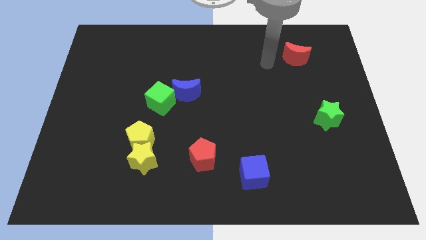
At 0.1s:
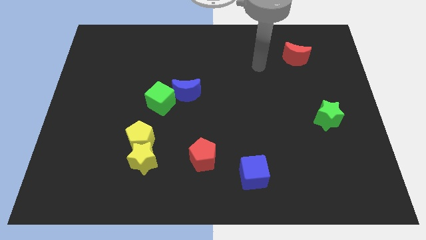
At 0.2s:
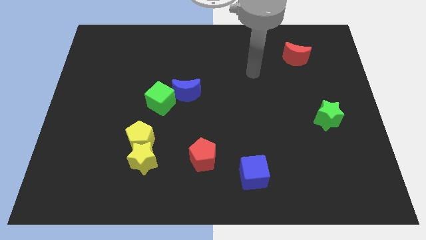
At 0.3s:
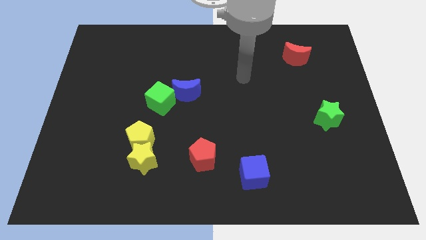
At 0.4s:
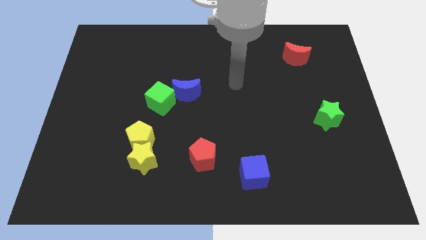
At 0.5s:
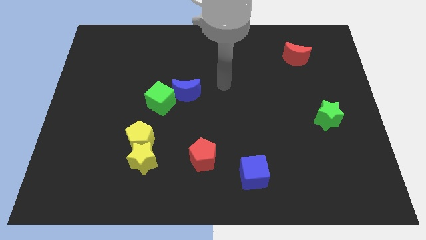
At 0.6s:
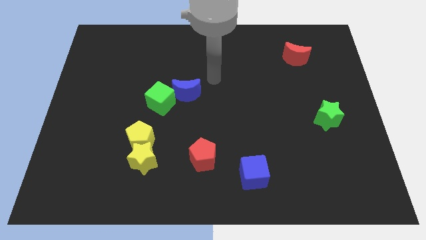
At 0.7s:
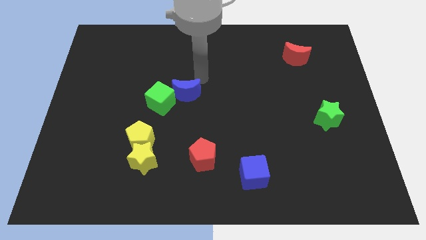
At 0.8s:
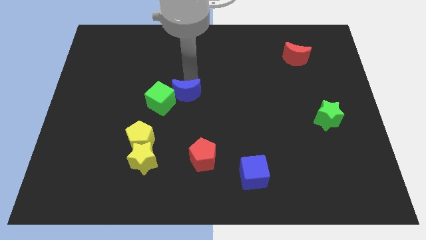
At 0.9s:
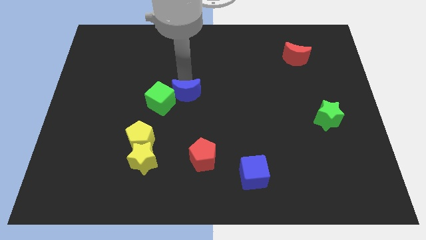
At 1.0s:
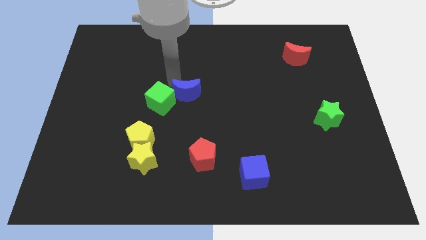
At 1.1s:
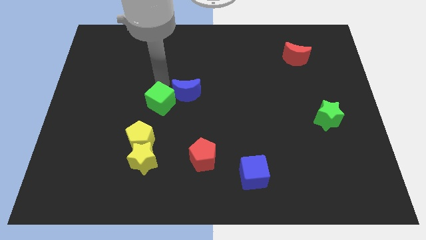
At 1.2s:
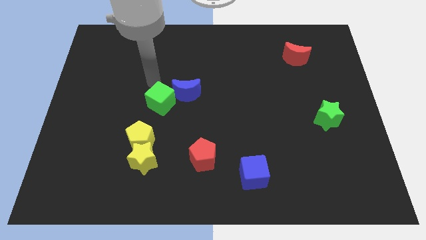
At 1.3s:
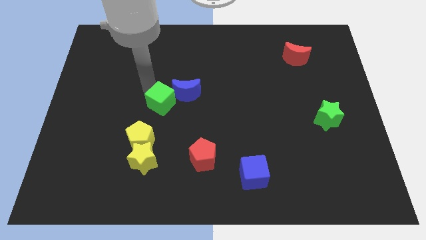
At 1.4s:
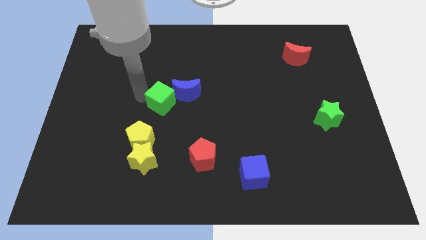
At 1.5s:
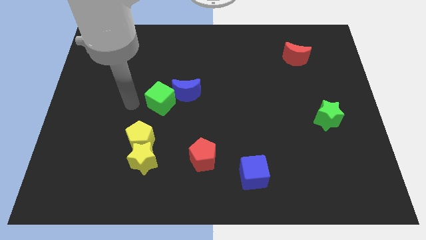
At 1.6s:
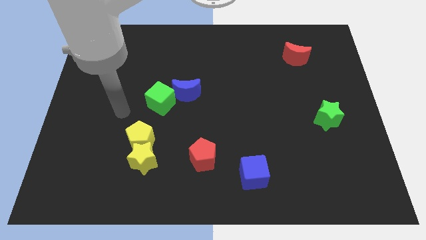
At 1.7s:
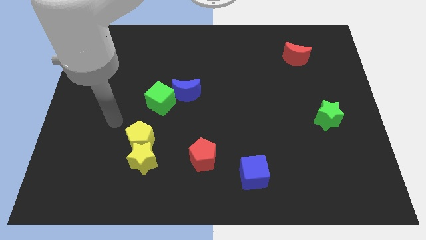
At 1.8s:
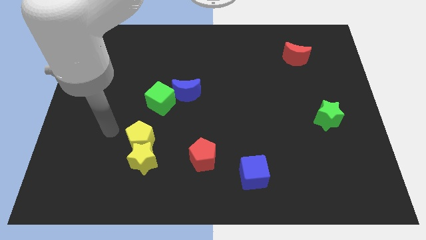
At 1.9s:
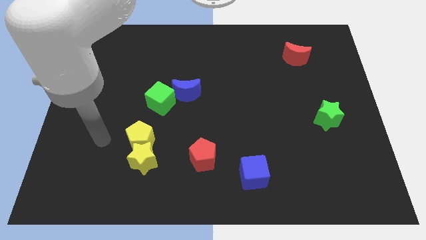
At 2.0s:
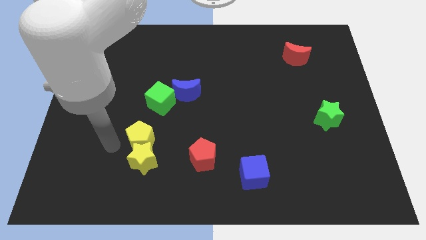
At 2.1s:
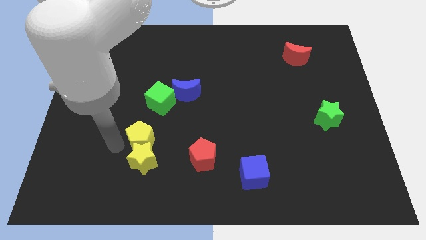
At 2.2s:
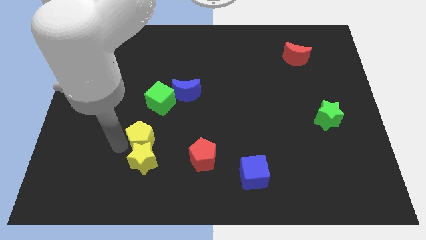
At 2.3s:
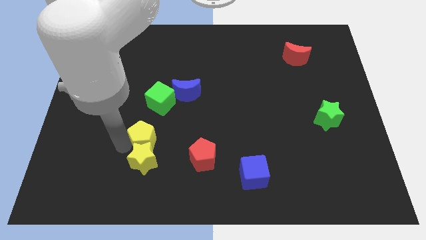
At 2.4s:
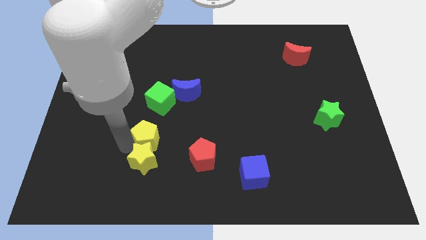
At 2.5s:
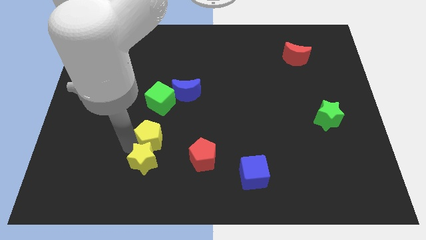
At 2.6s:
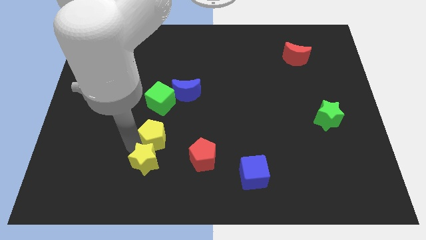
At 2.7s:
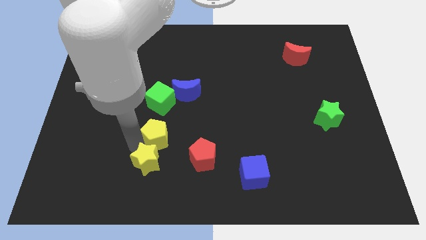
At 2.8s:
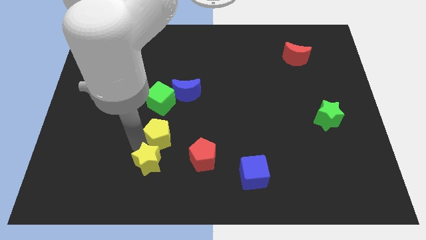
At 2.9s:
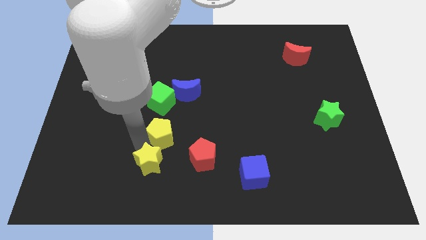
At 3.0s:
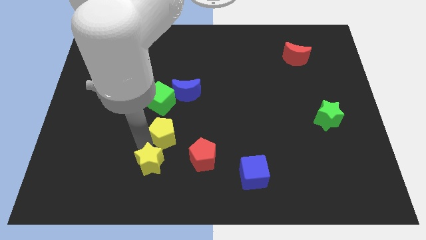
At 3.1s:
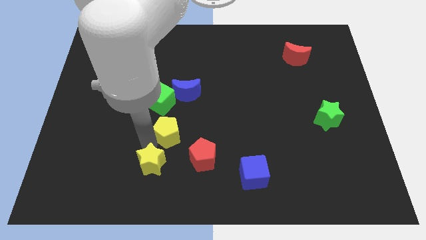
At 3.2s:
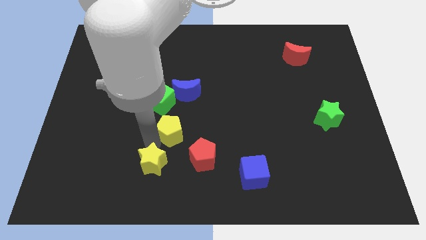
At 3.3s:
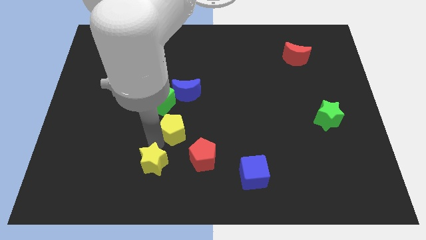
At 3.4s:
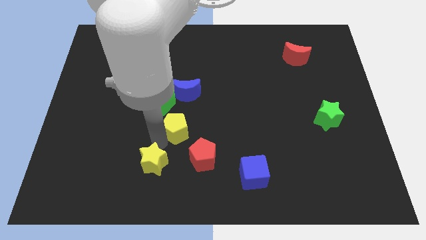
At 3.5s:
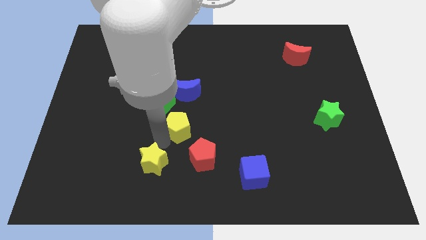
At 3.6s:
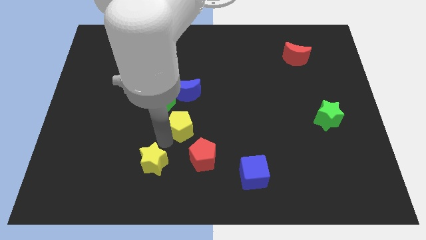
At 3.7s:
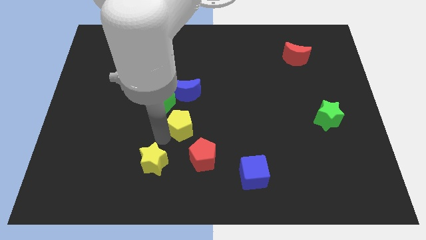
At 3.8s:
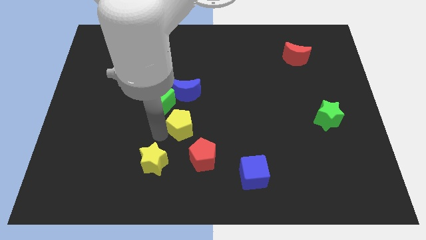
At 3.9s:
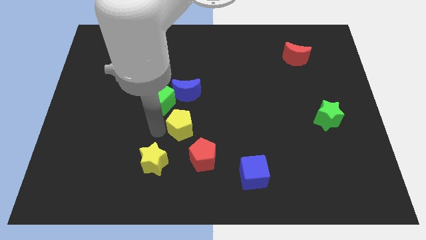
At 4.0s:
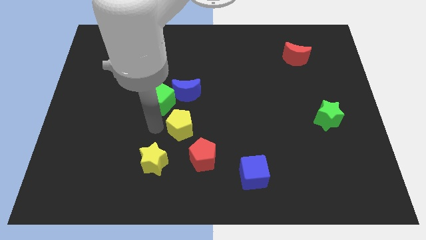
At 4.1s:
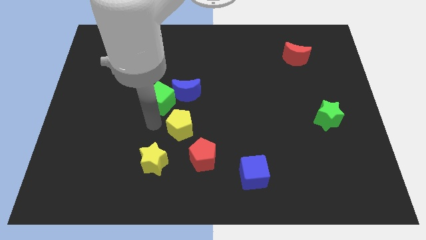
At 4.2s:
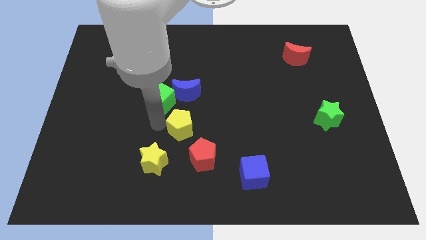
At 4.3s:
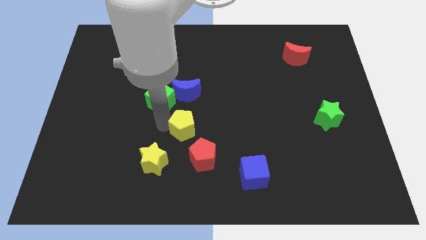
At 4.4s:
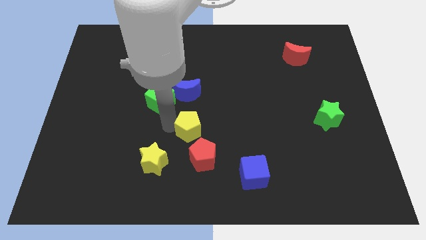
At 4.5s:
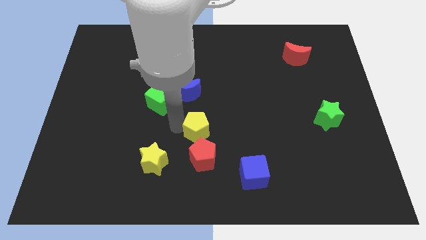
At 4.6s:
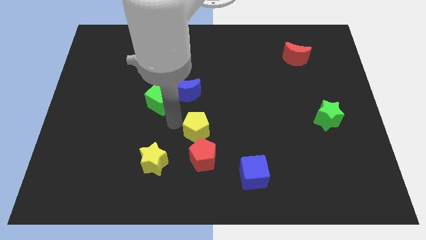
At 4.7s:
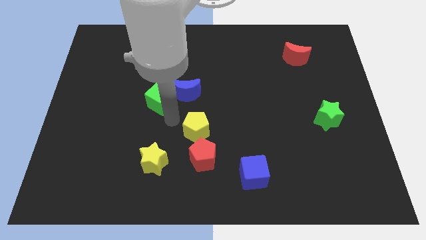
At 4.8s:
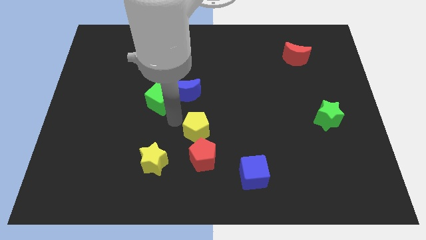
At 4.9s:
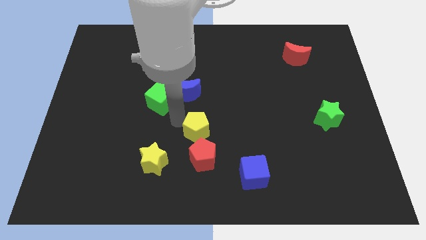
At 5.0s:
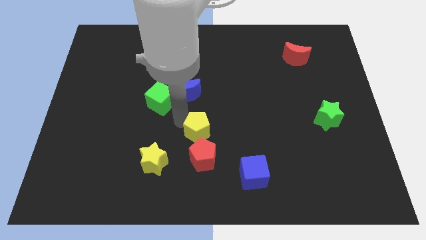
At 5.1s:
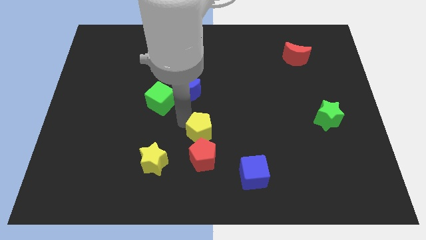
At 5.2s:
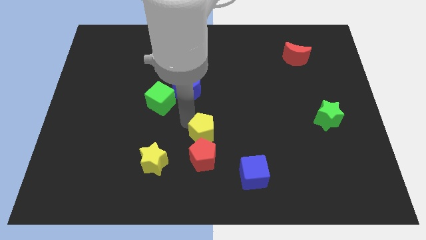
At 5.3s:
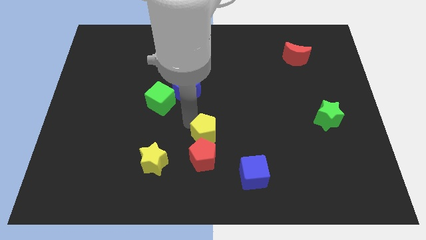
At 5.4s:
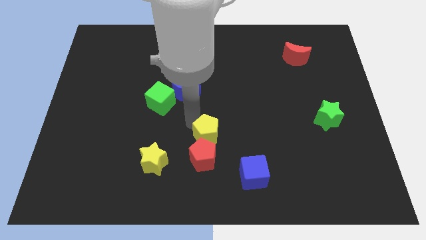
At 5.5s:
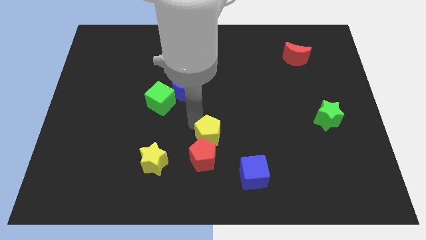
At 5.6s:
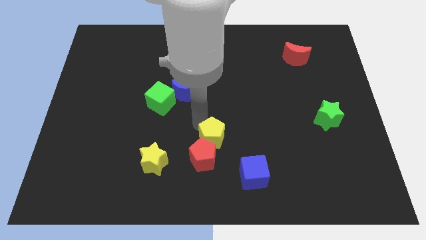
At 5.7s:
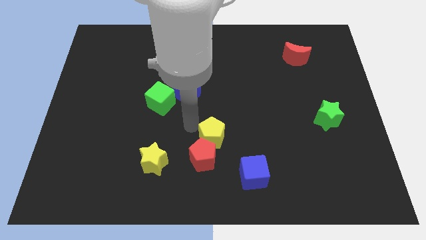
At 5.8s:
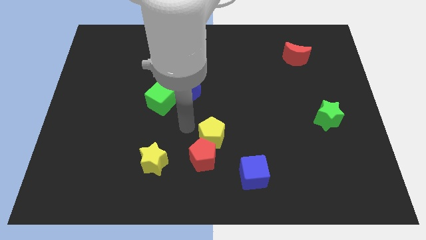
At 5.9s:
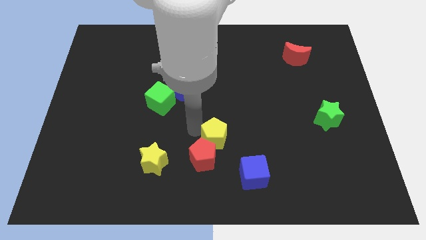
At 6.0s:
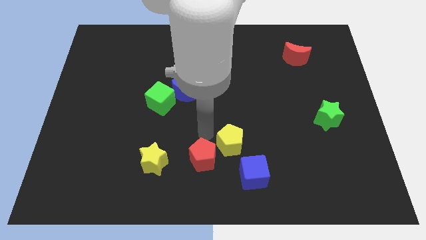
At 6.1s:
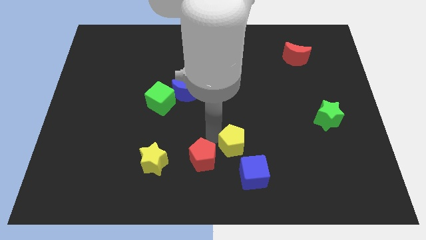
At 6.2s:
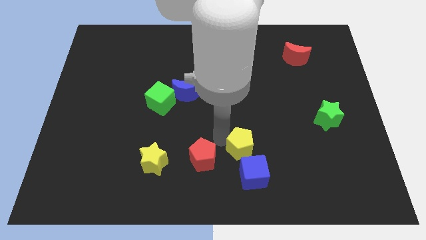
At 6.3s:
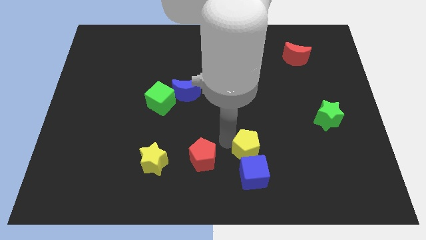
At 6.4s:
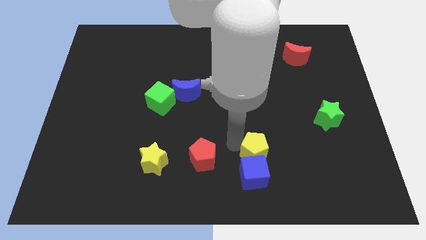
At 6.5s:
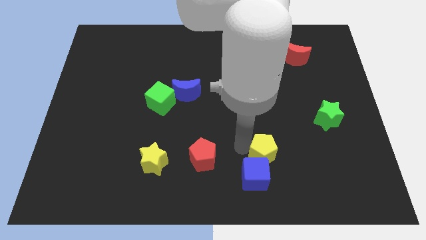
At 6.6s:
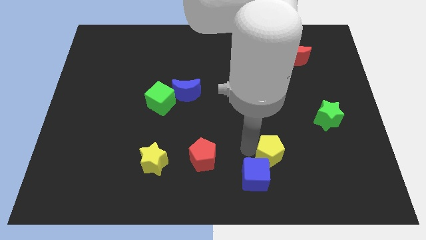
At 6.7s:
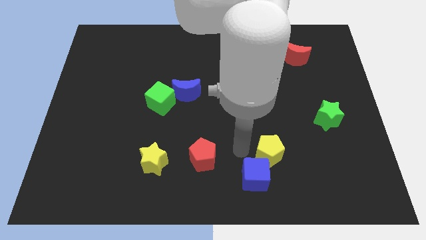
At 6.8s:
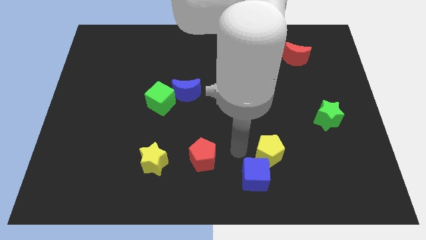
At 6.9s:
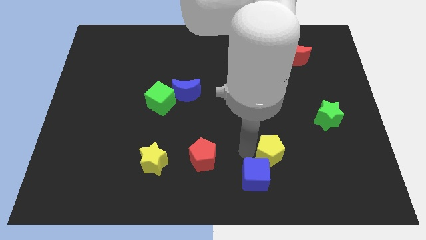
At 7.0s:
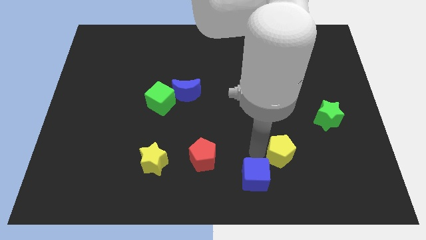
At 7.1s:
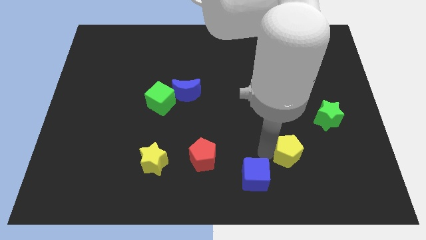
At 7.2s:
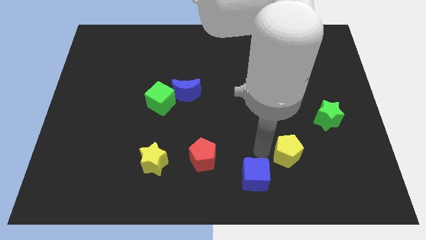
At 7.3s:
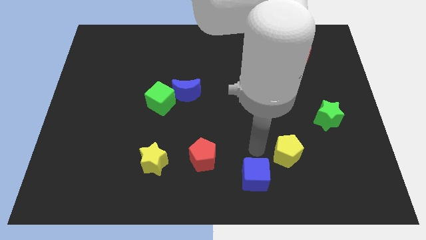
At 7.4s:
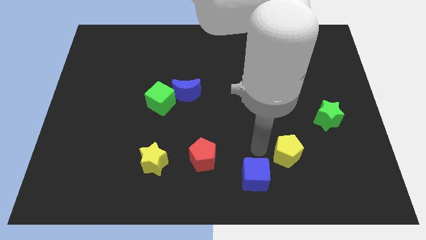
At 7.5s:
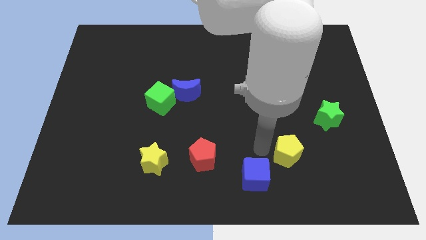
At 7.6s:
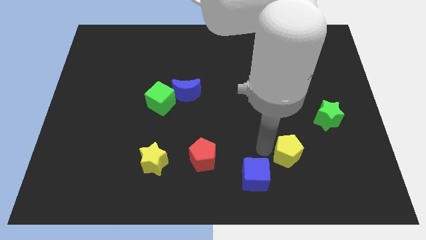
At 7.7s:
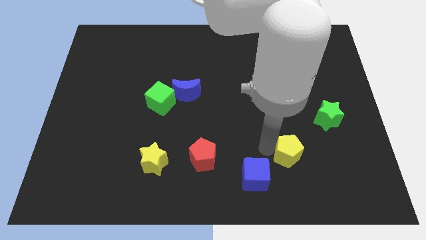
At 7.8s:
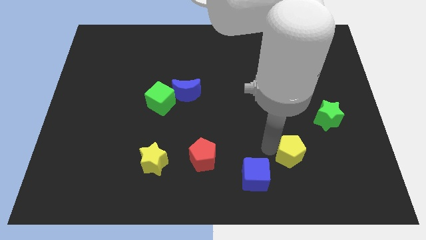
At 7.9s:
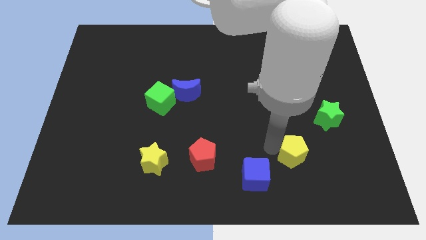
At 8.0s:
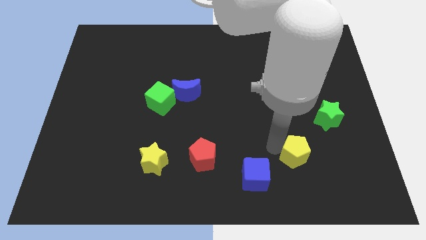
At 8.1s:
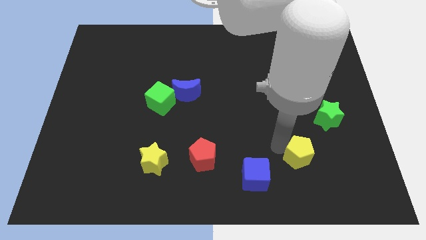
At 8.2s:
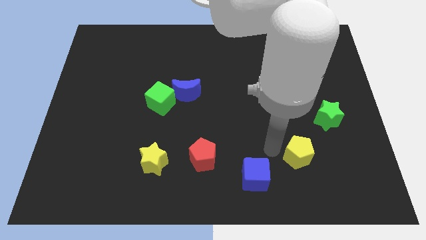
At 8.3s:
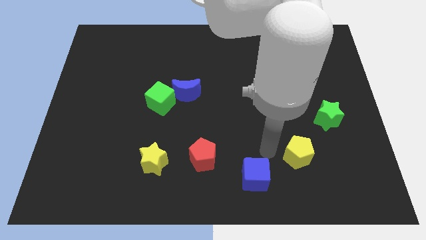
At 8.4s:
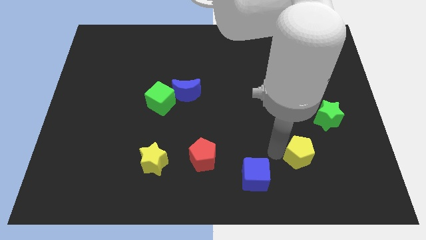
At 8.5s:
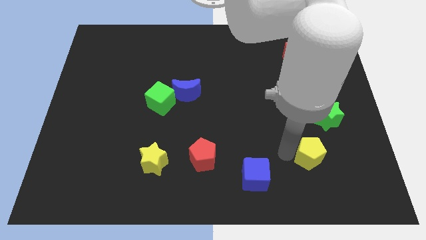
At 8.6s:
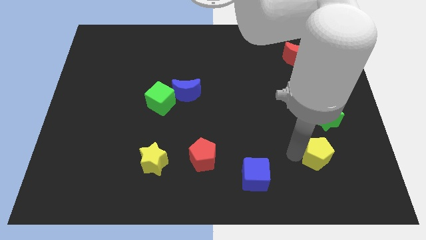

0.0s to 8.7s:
push the yellow pentagon below the green star
